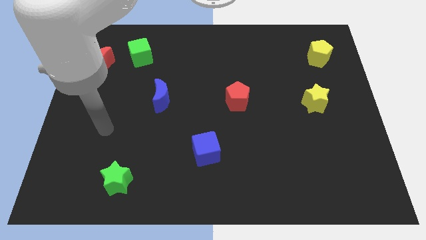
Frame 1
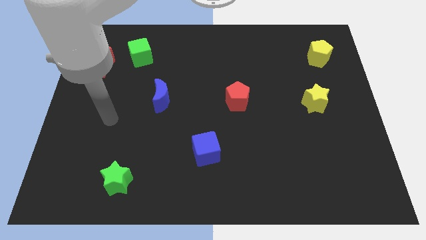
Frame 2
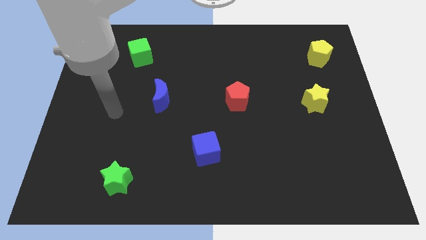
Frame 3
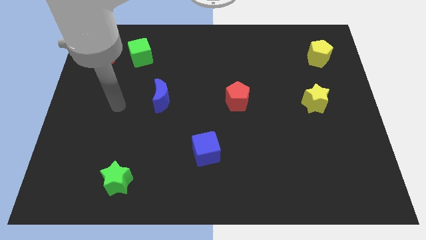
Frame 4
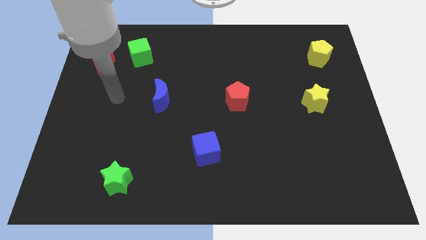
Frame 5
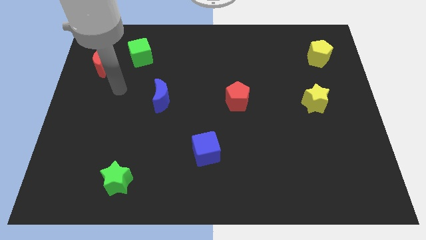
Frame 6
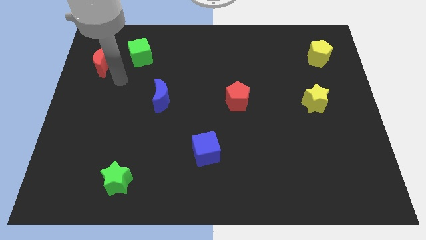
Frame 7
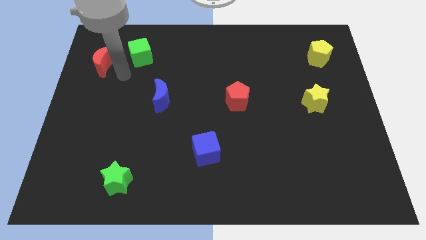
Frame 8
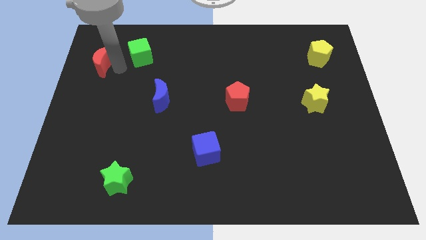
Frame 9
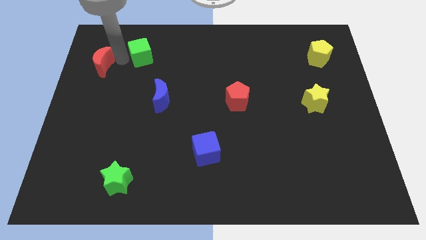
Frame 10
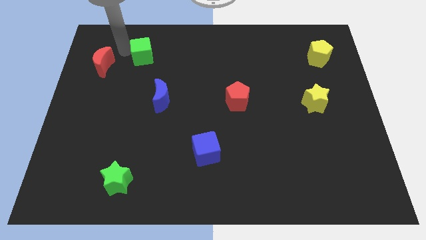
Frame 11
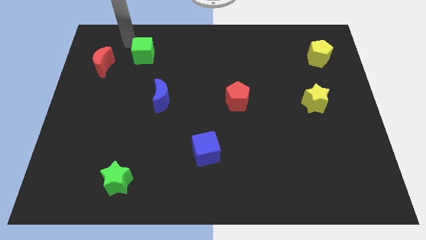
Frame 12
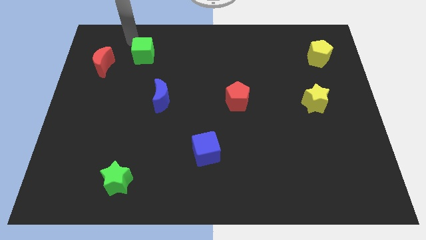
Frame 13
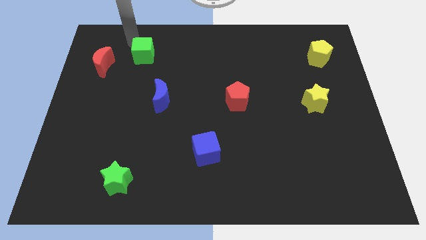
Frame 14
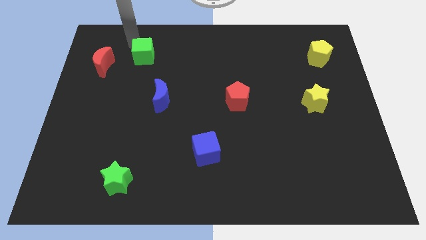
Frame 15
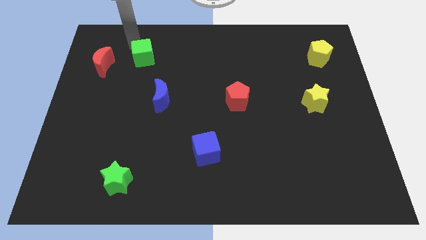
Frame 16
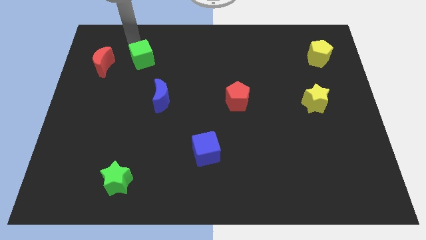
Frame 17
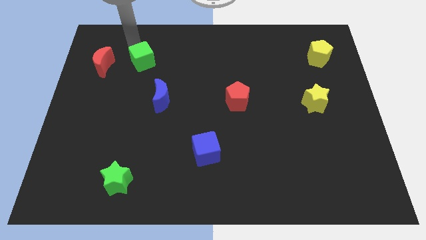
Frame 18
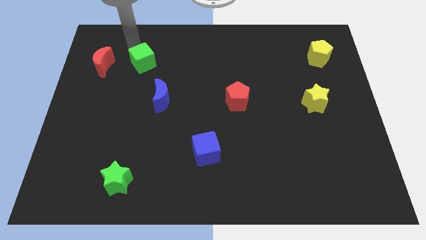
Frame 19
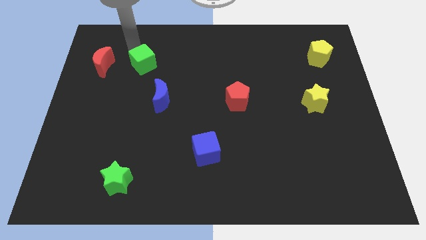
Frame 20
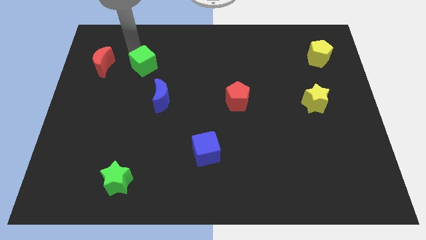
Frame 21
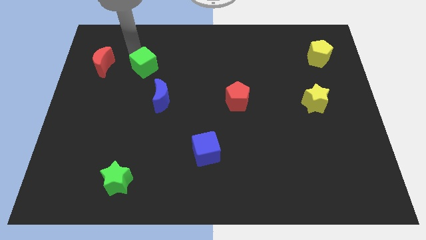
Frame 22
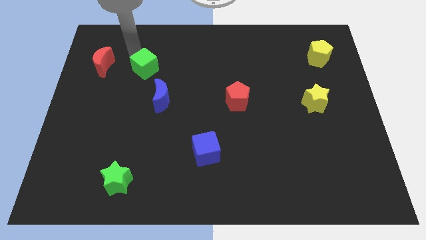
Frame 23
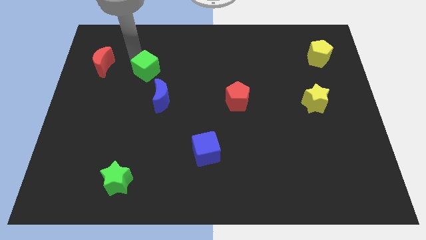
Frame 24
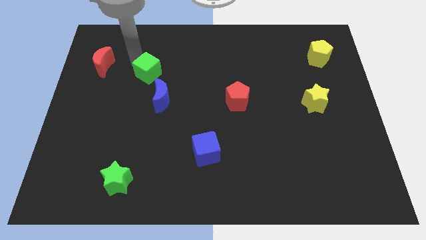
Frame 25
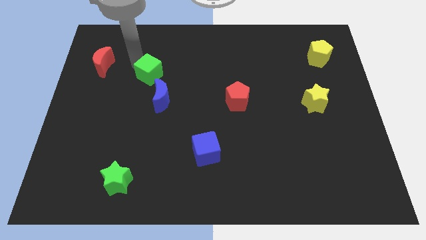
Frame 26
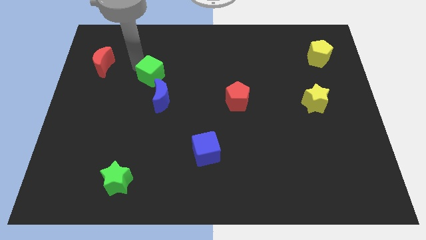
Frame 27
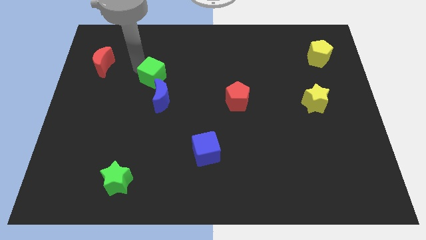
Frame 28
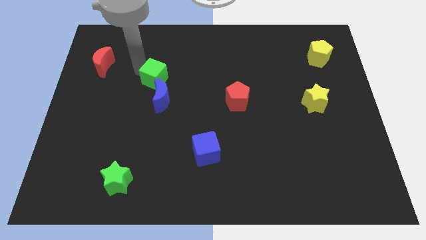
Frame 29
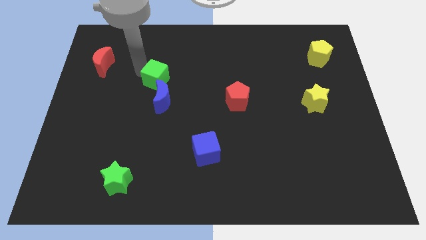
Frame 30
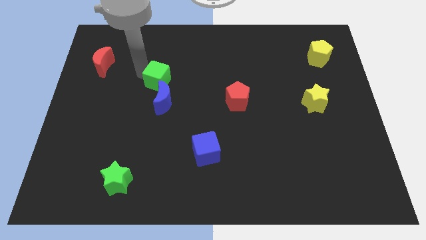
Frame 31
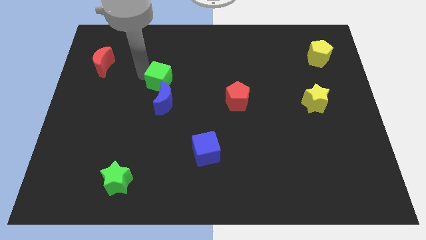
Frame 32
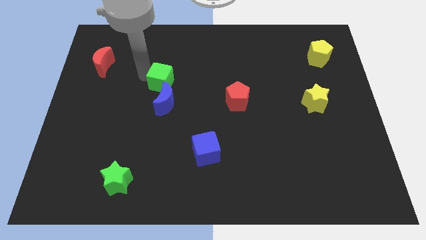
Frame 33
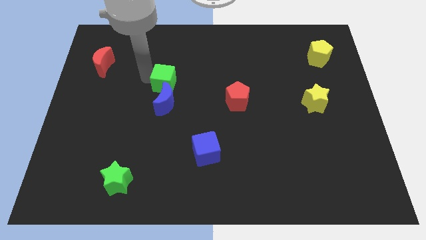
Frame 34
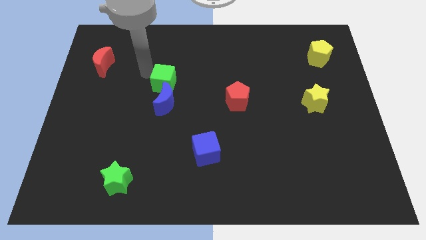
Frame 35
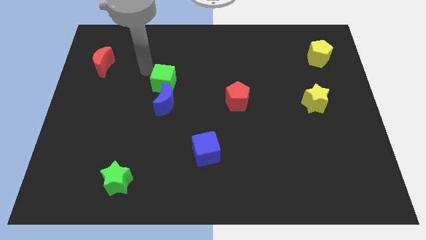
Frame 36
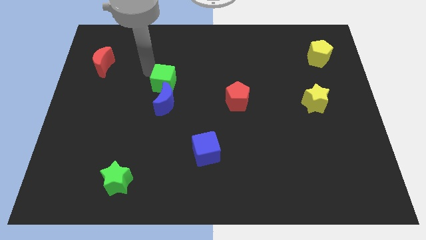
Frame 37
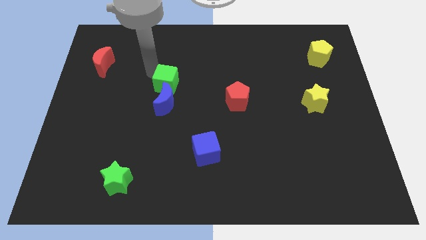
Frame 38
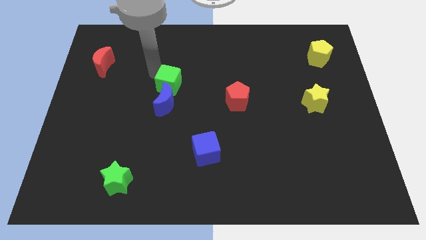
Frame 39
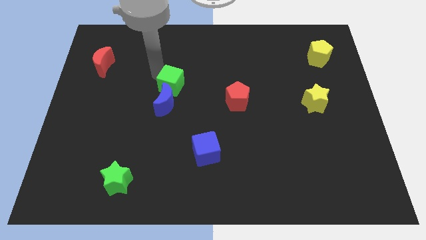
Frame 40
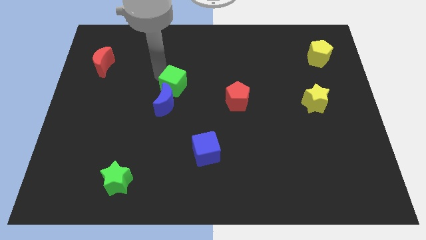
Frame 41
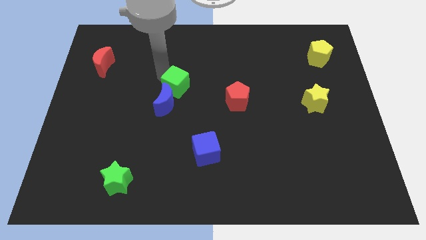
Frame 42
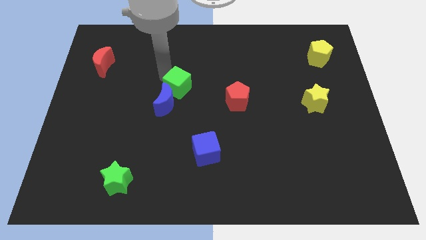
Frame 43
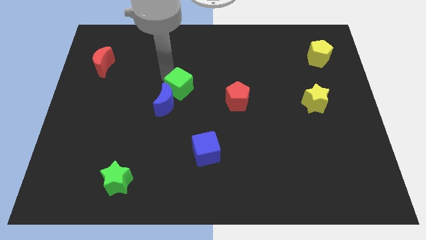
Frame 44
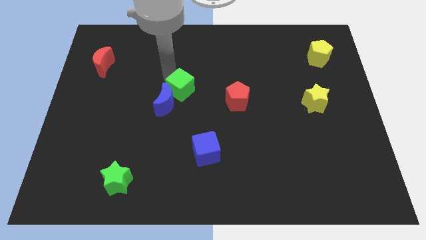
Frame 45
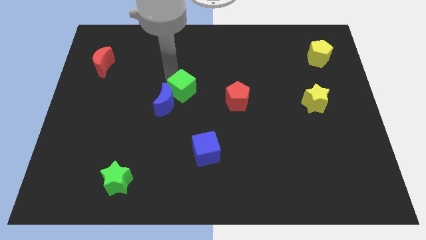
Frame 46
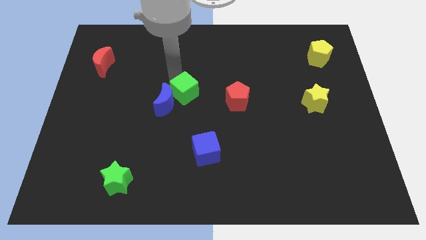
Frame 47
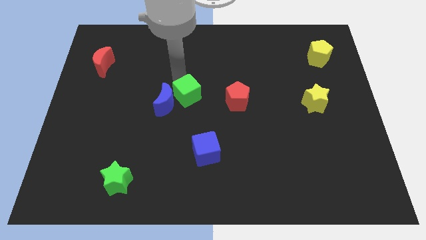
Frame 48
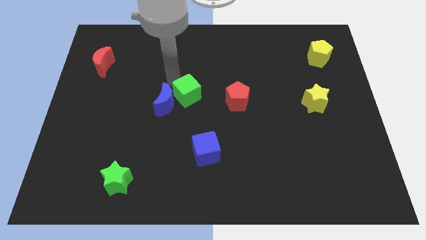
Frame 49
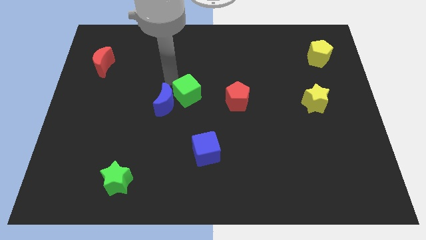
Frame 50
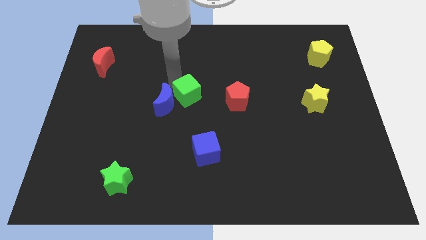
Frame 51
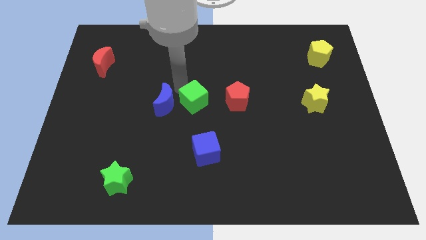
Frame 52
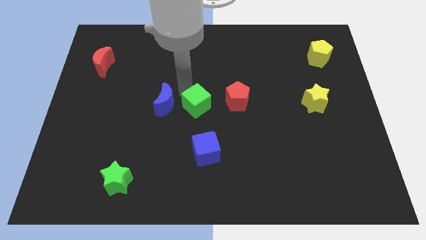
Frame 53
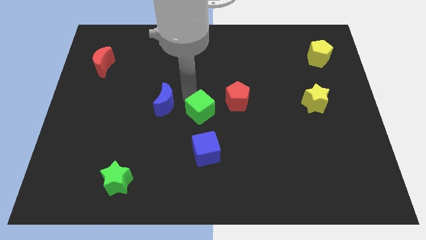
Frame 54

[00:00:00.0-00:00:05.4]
put the green cube to the bottom left of the red pentagon

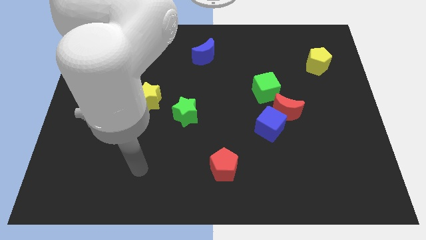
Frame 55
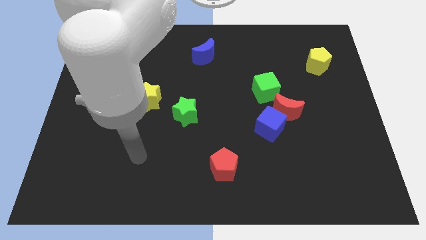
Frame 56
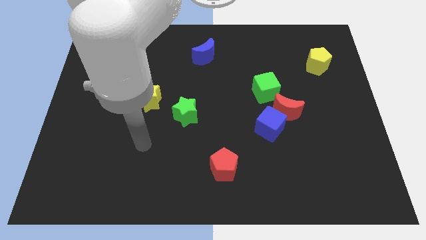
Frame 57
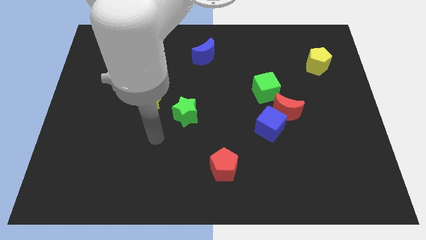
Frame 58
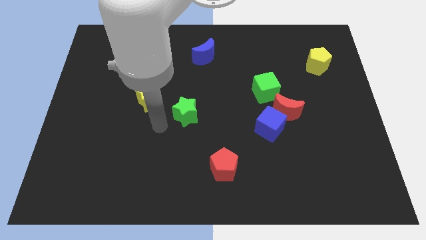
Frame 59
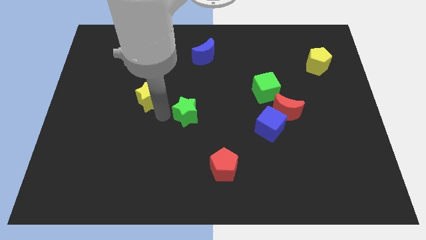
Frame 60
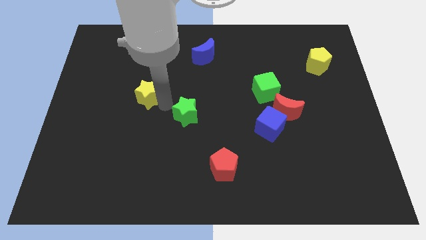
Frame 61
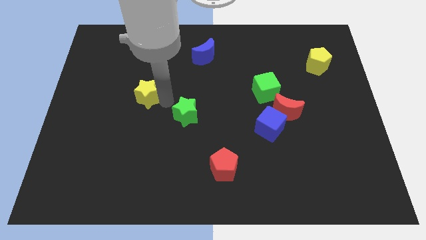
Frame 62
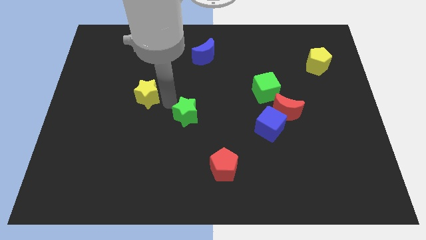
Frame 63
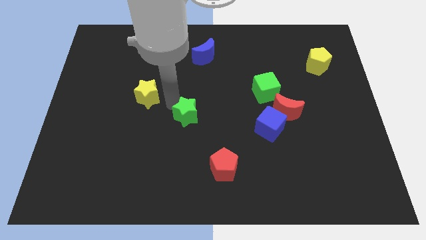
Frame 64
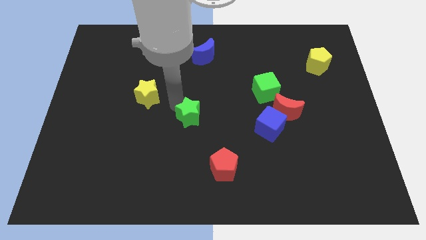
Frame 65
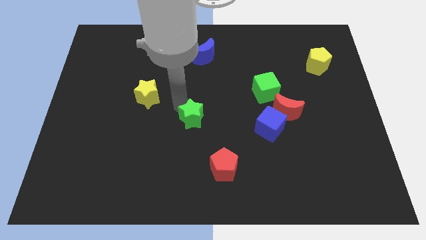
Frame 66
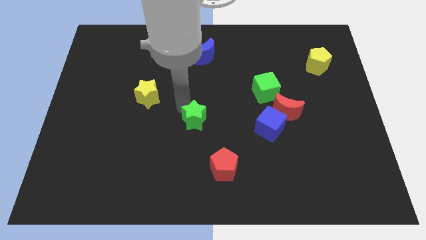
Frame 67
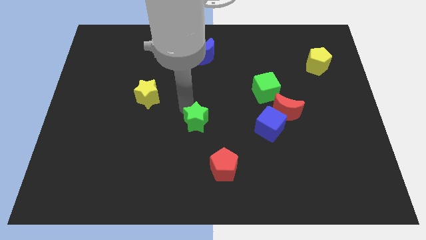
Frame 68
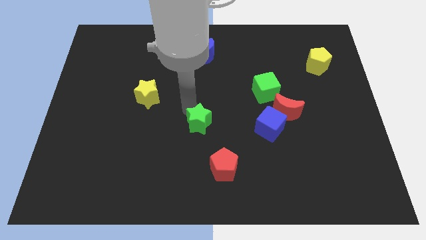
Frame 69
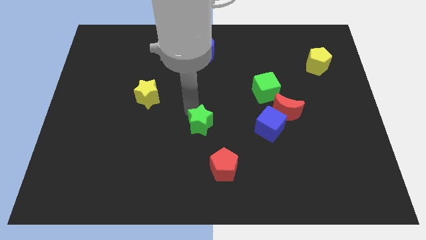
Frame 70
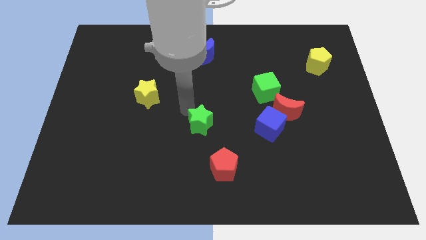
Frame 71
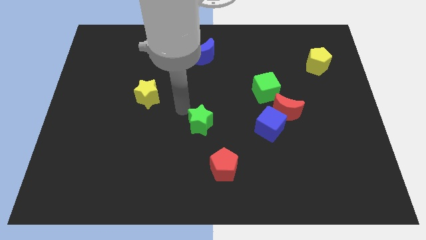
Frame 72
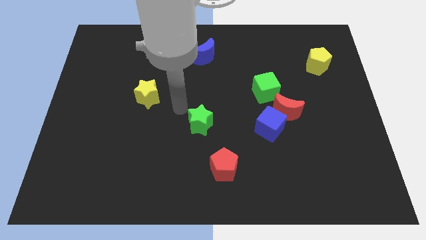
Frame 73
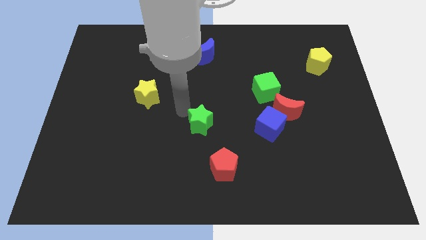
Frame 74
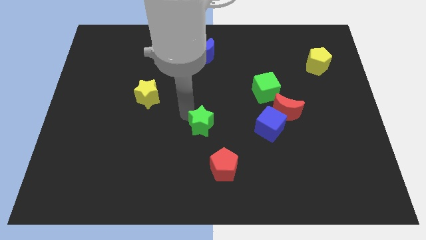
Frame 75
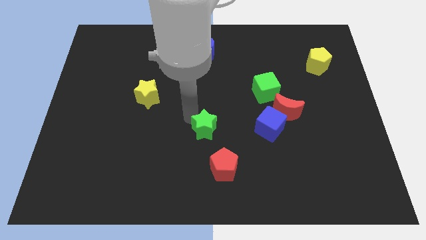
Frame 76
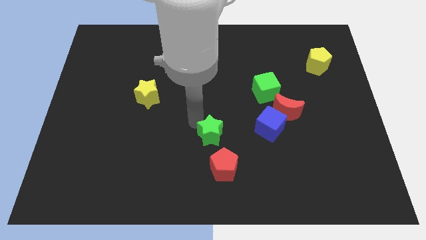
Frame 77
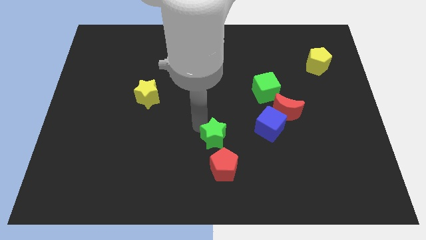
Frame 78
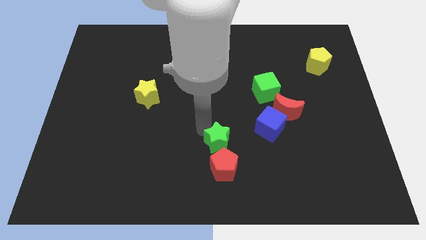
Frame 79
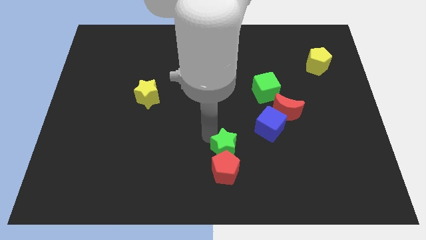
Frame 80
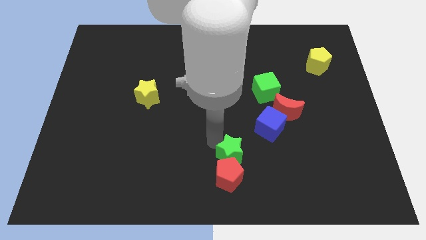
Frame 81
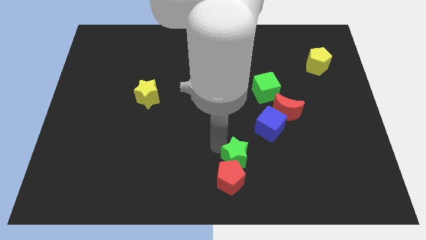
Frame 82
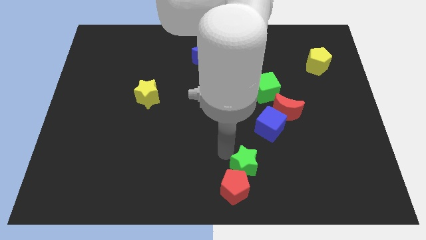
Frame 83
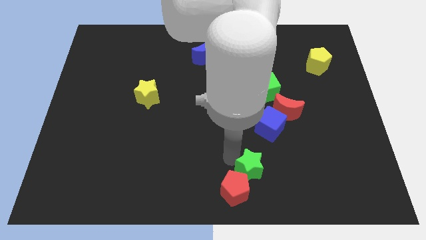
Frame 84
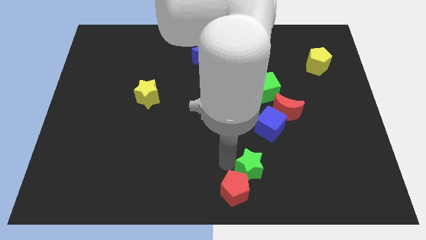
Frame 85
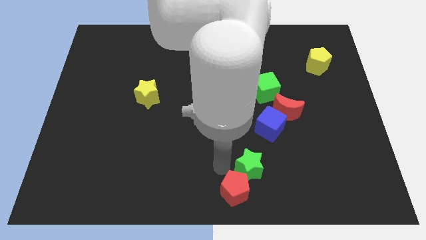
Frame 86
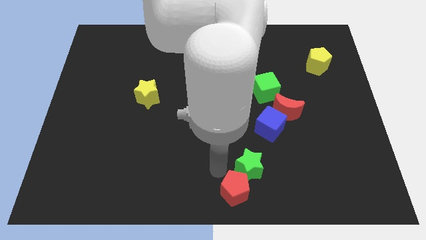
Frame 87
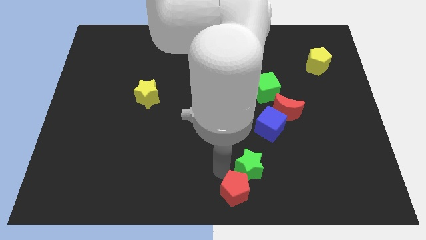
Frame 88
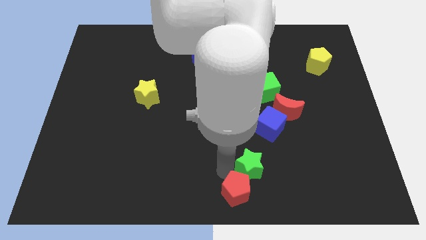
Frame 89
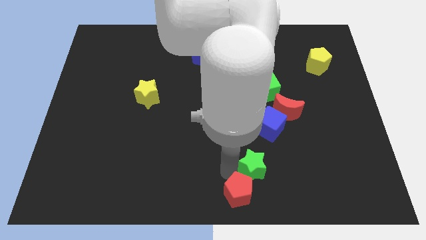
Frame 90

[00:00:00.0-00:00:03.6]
put the green star below the blue cube
